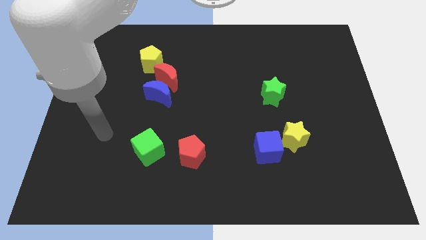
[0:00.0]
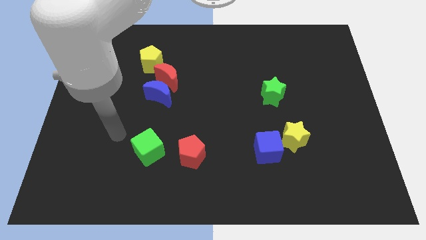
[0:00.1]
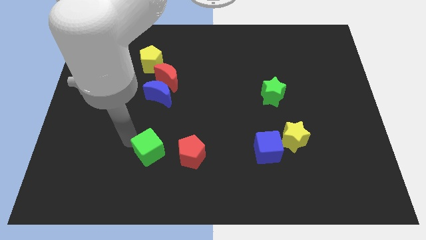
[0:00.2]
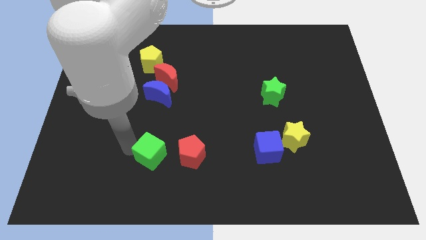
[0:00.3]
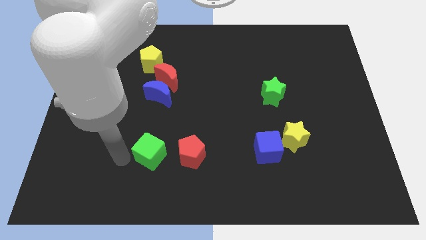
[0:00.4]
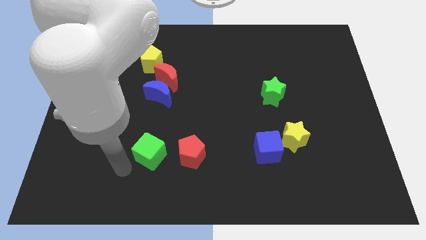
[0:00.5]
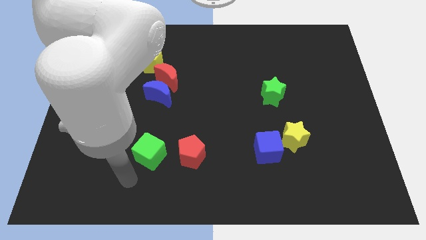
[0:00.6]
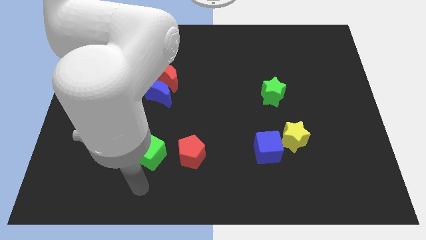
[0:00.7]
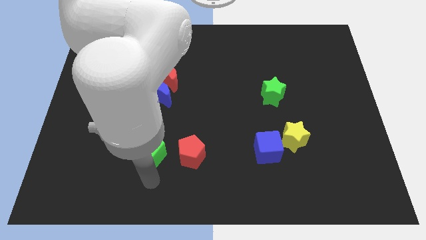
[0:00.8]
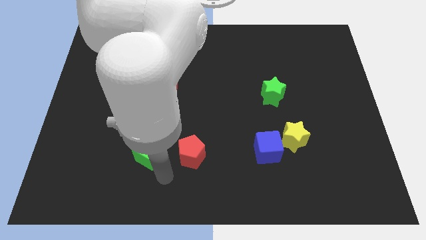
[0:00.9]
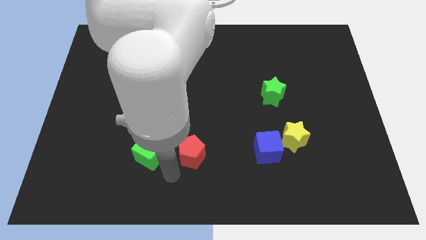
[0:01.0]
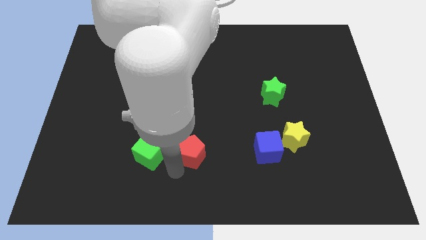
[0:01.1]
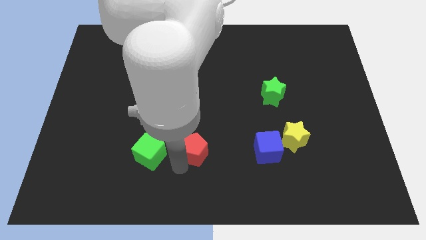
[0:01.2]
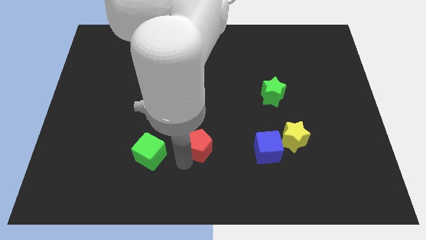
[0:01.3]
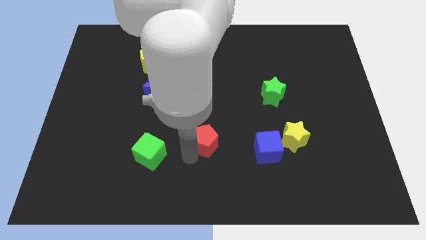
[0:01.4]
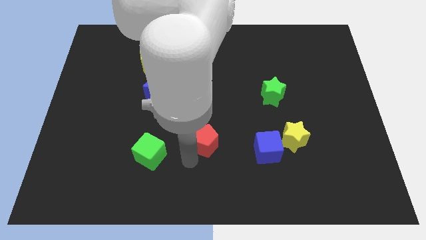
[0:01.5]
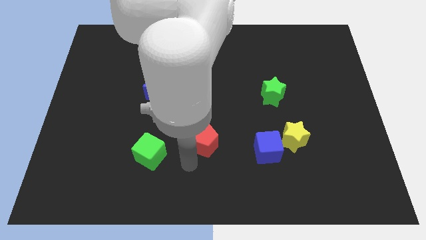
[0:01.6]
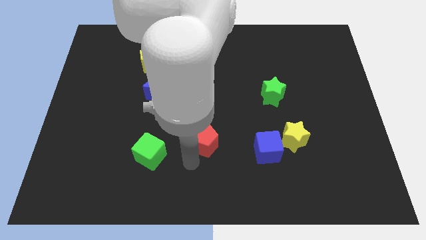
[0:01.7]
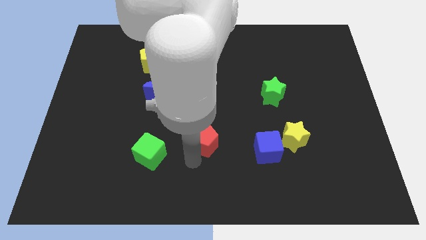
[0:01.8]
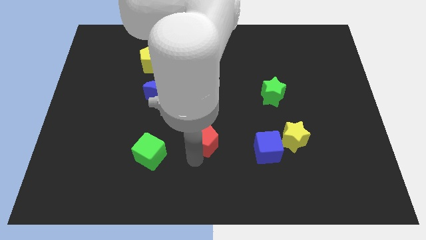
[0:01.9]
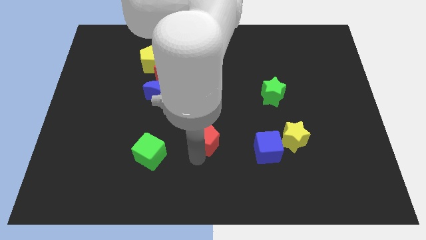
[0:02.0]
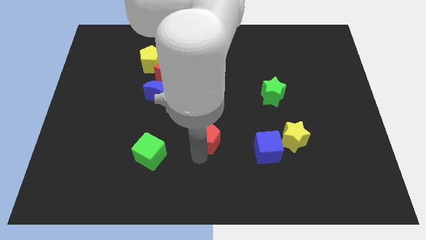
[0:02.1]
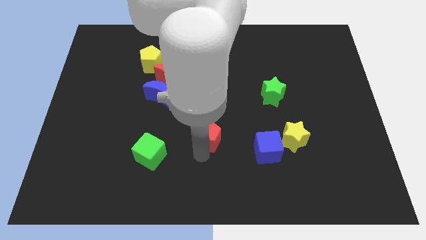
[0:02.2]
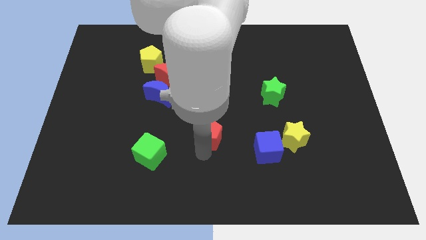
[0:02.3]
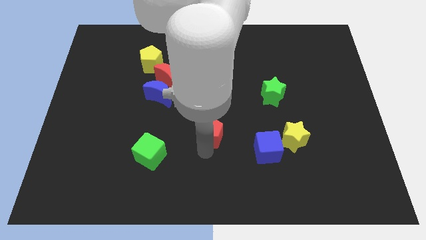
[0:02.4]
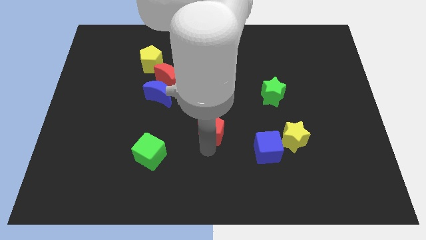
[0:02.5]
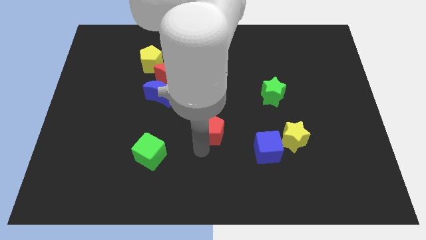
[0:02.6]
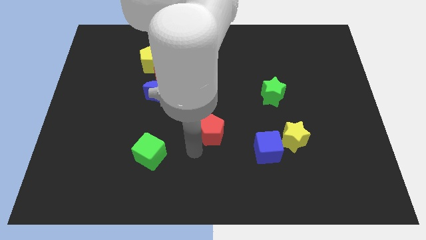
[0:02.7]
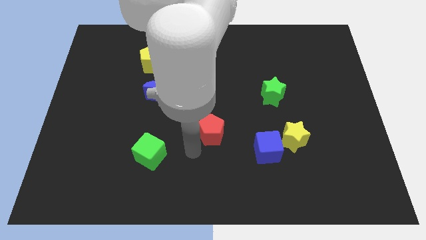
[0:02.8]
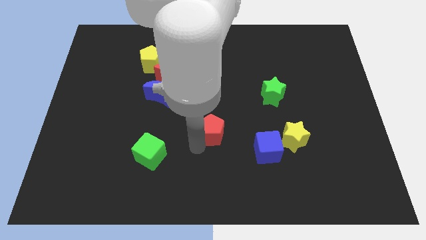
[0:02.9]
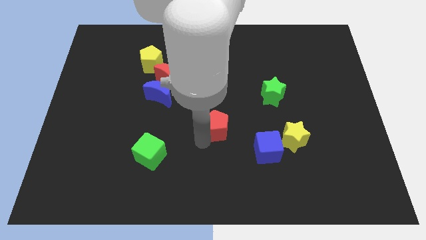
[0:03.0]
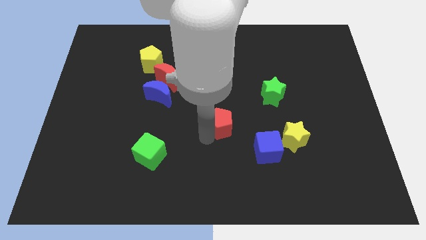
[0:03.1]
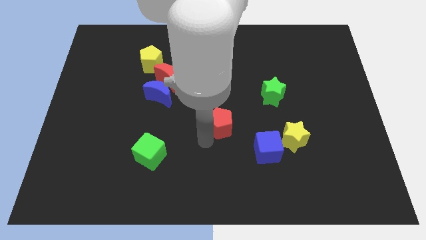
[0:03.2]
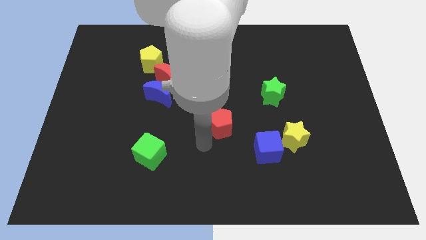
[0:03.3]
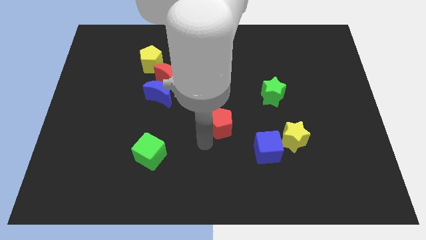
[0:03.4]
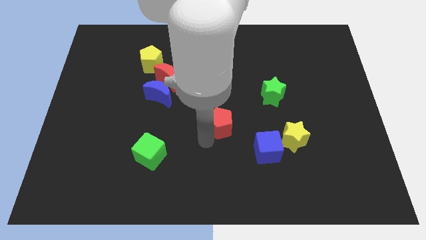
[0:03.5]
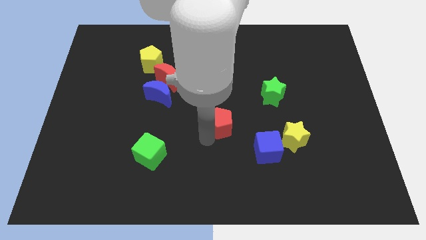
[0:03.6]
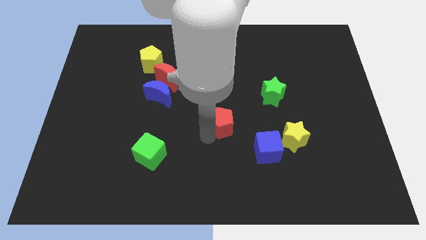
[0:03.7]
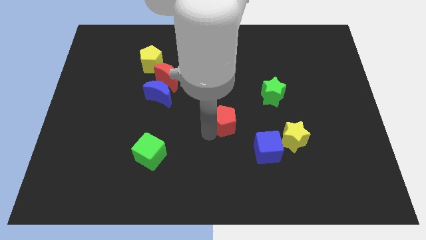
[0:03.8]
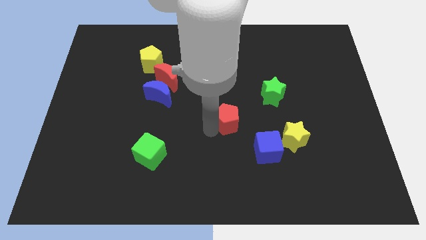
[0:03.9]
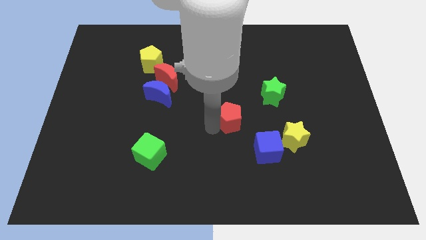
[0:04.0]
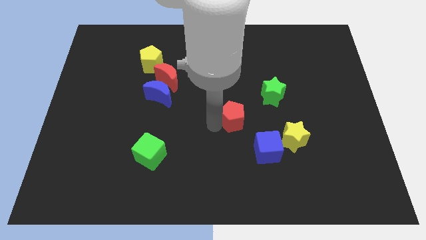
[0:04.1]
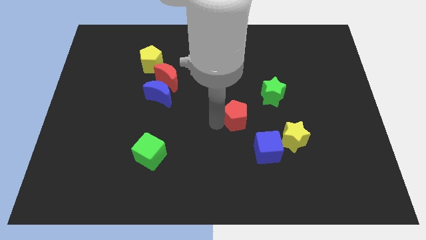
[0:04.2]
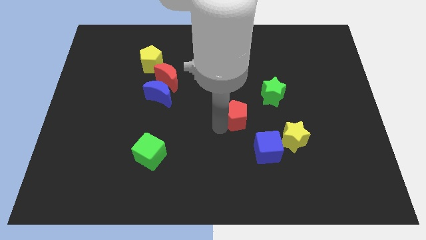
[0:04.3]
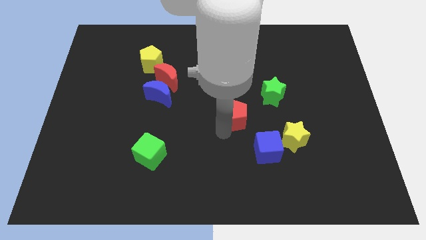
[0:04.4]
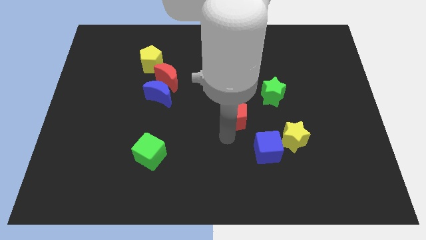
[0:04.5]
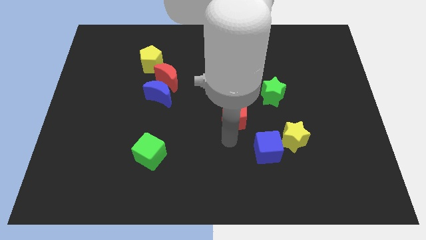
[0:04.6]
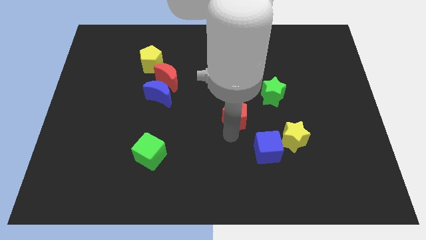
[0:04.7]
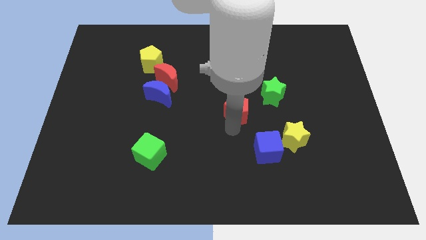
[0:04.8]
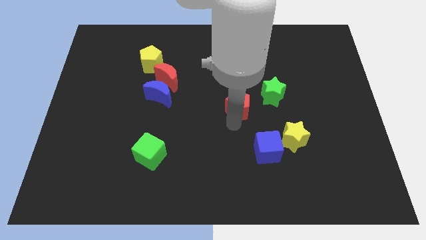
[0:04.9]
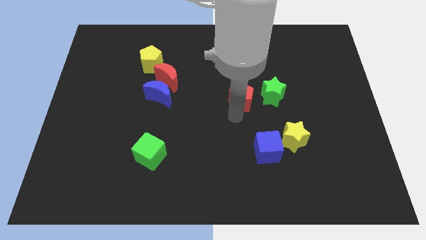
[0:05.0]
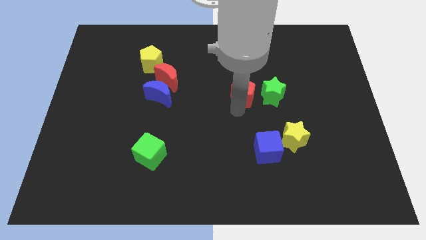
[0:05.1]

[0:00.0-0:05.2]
push the red pentagon diagonally up and to the left of the green star

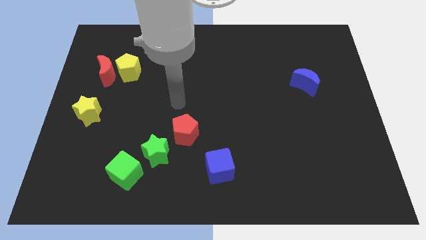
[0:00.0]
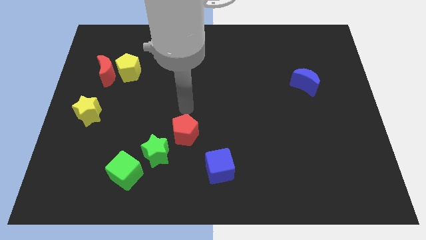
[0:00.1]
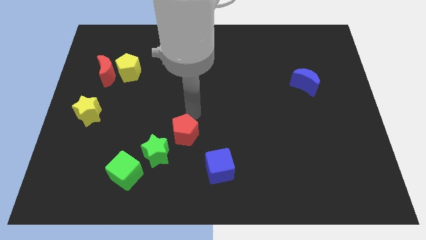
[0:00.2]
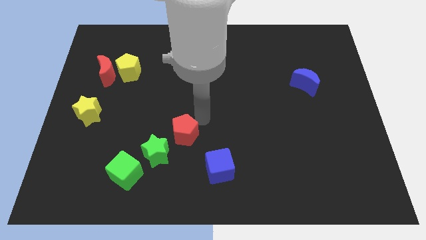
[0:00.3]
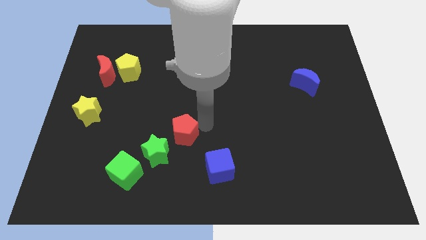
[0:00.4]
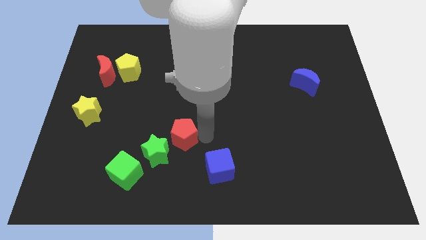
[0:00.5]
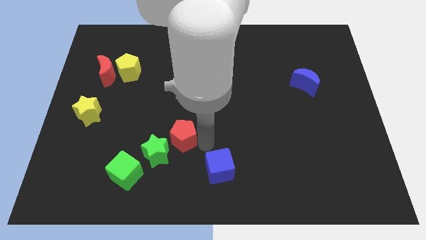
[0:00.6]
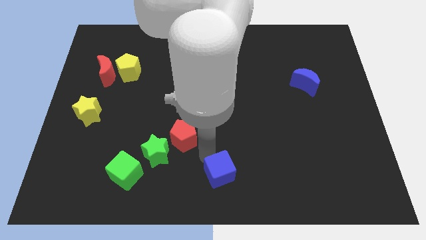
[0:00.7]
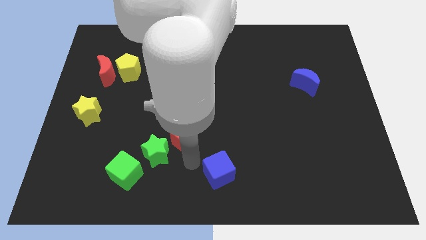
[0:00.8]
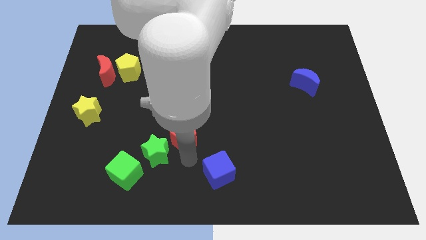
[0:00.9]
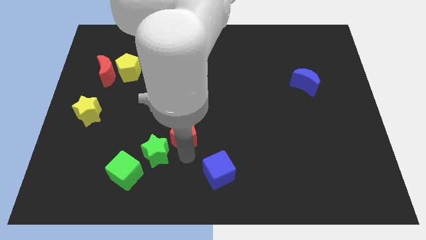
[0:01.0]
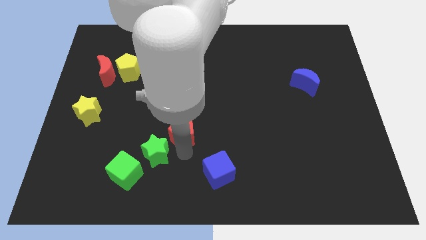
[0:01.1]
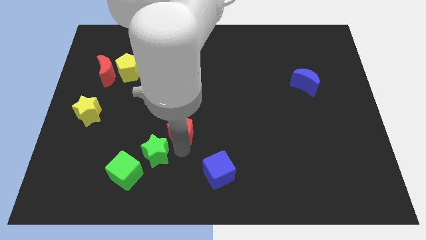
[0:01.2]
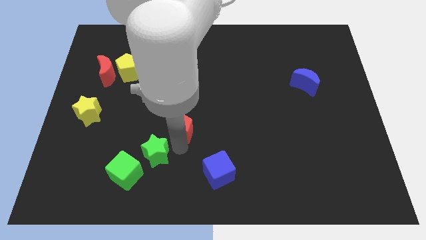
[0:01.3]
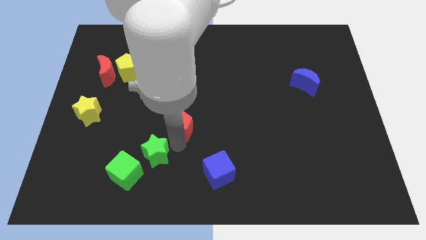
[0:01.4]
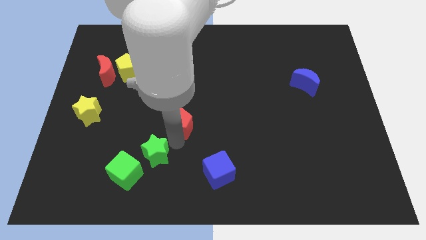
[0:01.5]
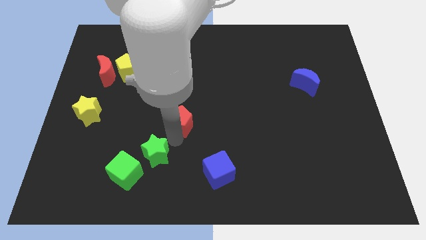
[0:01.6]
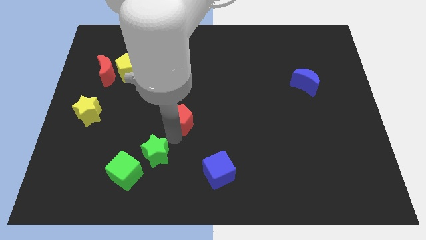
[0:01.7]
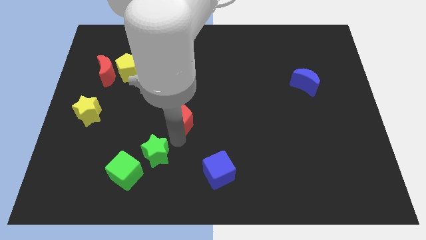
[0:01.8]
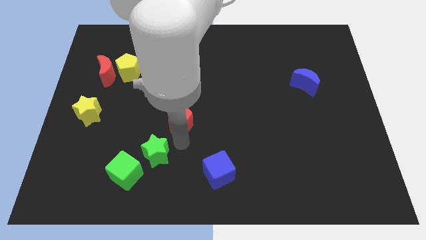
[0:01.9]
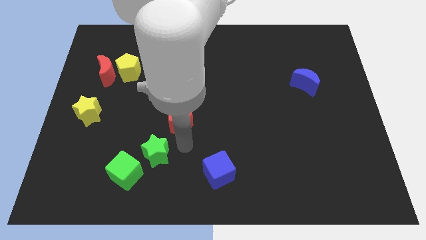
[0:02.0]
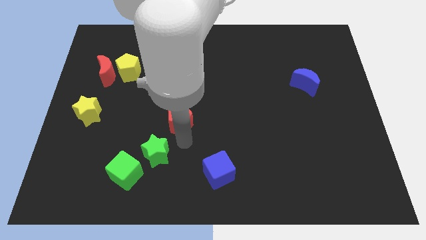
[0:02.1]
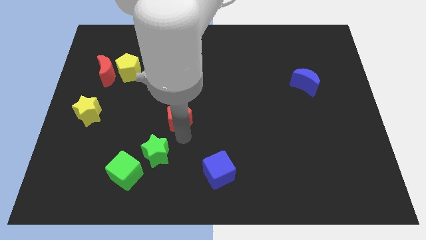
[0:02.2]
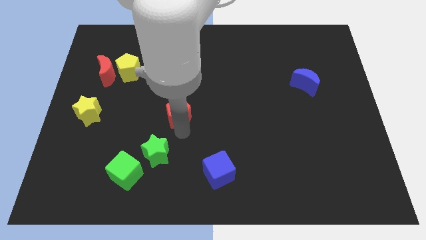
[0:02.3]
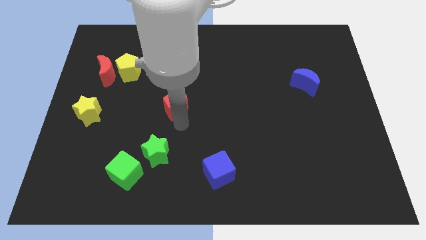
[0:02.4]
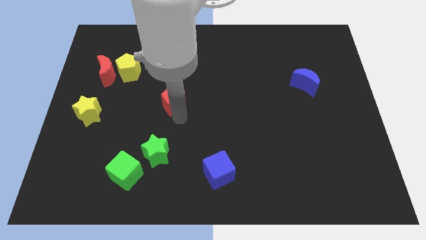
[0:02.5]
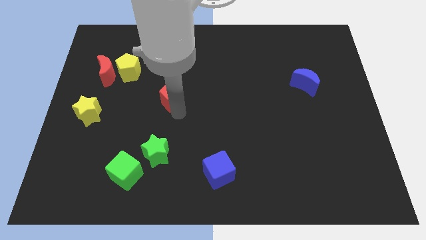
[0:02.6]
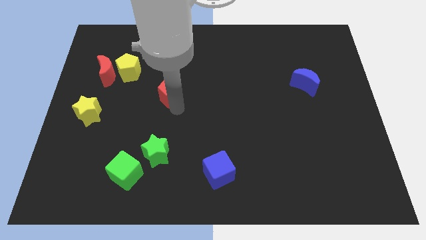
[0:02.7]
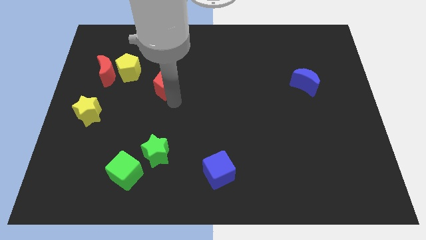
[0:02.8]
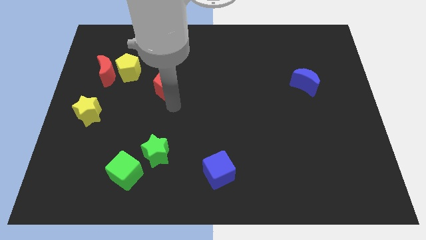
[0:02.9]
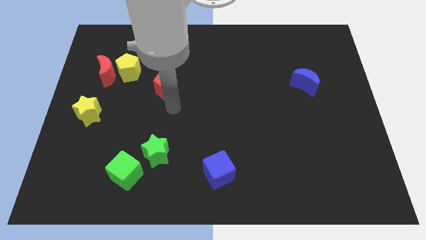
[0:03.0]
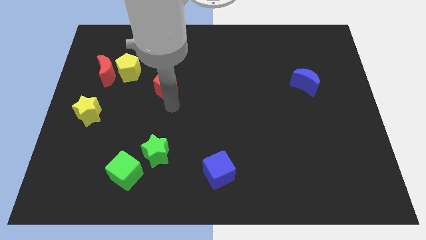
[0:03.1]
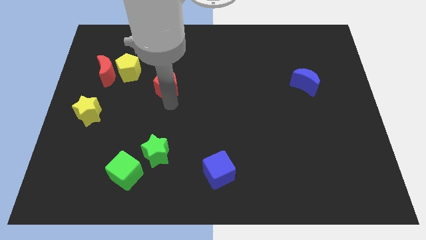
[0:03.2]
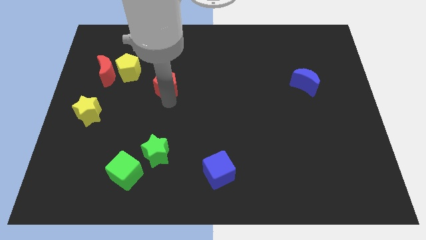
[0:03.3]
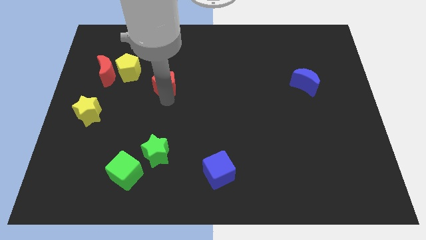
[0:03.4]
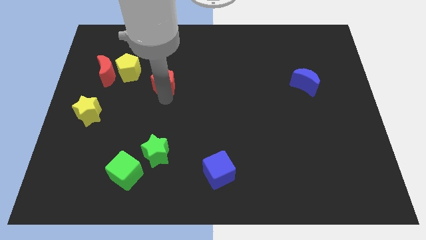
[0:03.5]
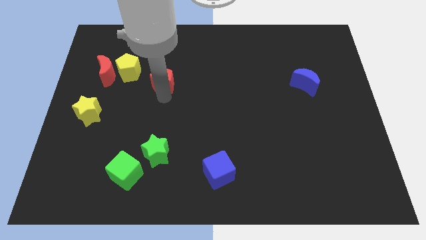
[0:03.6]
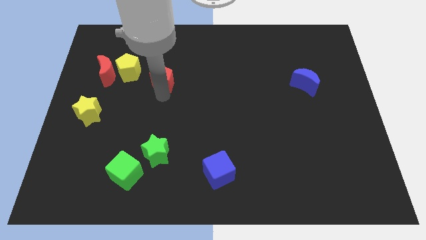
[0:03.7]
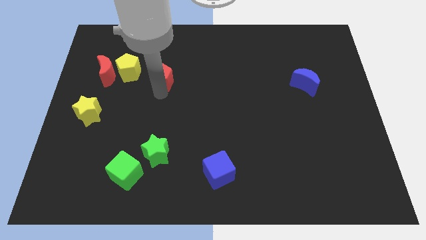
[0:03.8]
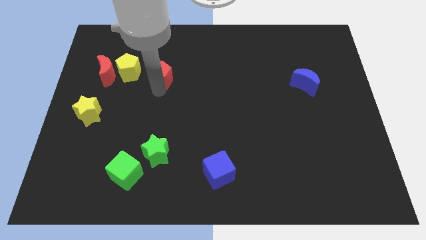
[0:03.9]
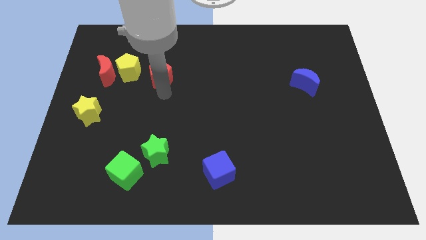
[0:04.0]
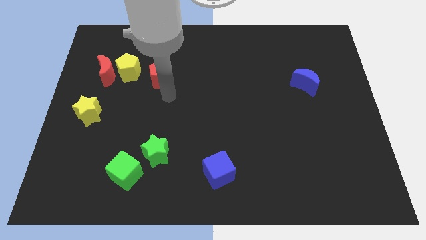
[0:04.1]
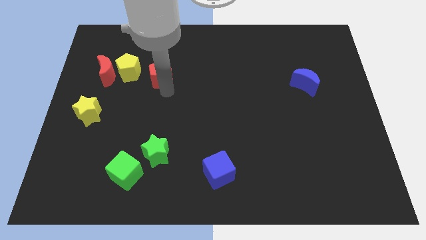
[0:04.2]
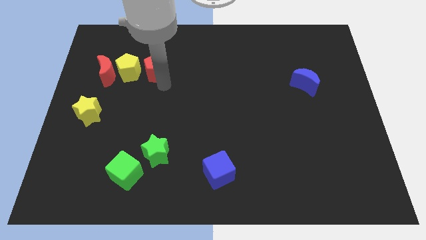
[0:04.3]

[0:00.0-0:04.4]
move the red pentagon to the top right of the yellow pentagon
